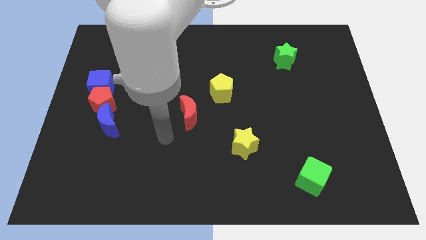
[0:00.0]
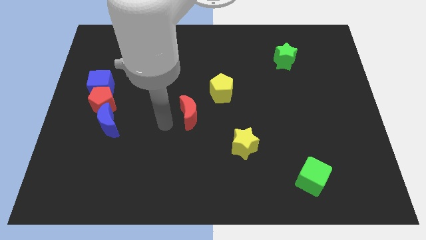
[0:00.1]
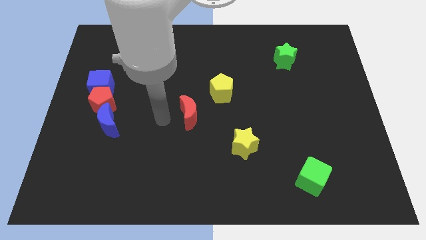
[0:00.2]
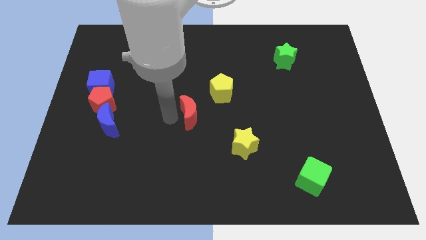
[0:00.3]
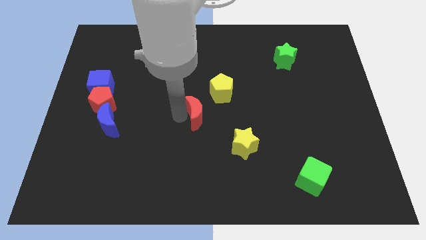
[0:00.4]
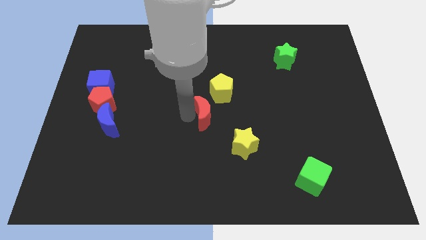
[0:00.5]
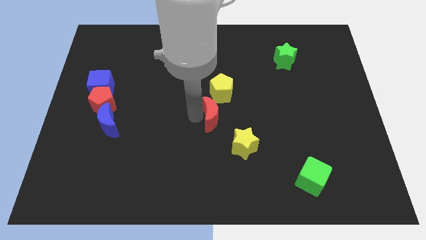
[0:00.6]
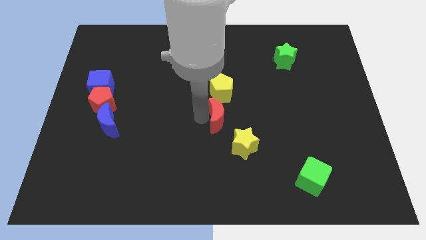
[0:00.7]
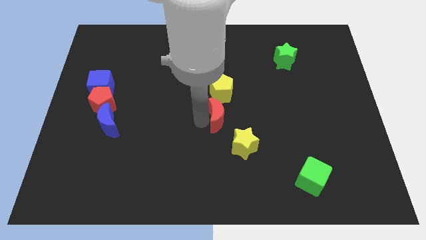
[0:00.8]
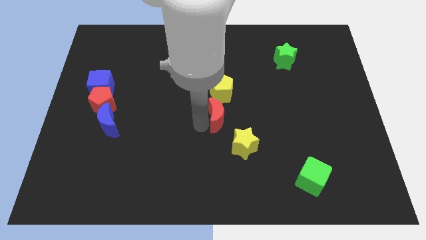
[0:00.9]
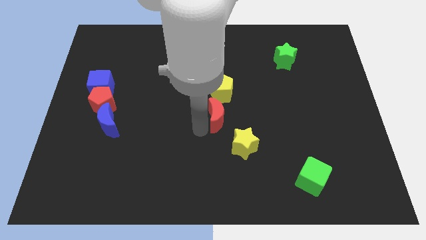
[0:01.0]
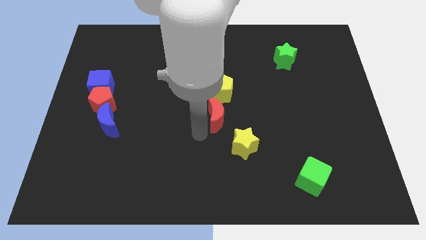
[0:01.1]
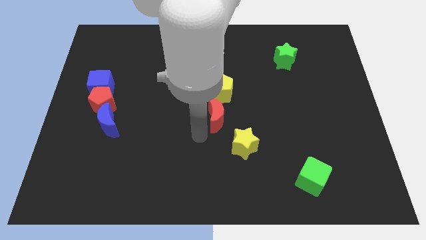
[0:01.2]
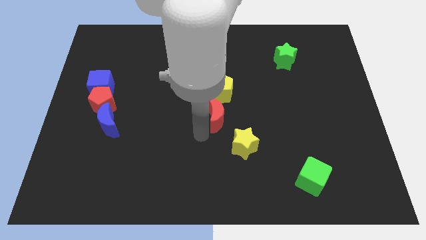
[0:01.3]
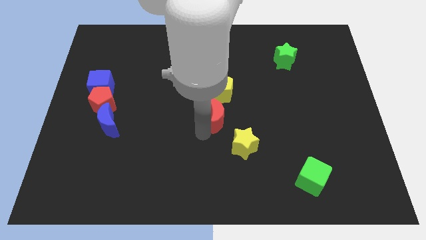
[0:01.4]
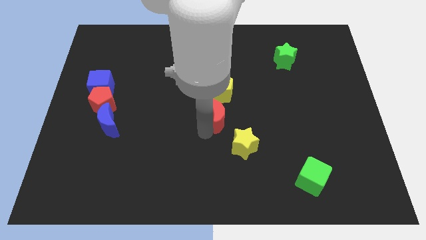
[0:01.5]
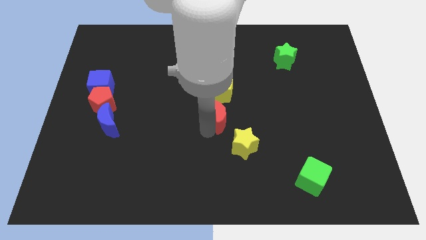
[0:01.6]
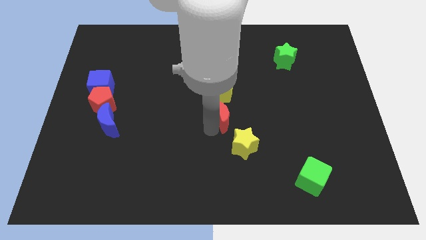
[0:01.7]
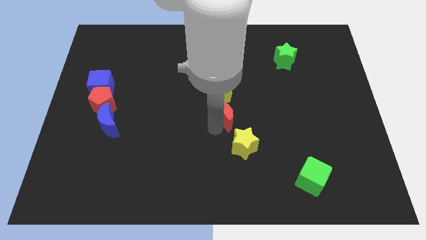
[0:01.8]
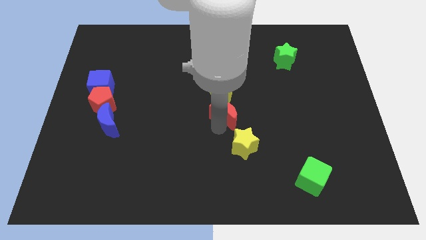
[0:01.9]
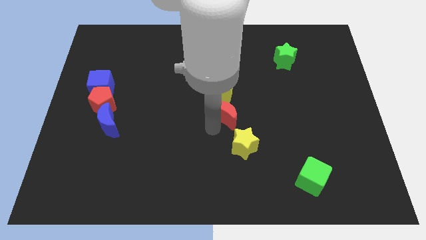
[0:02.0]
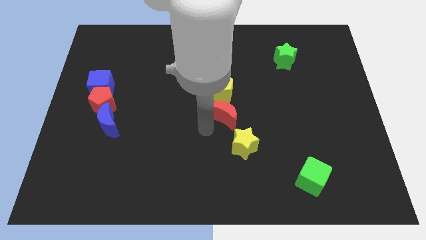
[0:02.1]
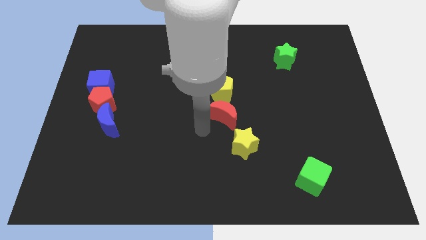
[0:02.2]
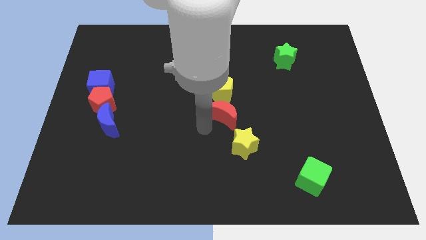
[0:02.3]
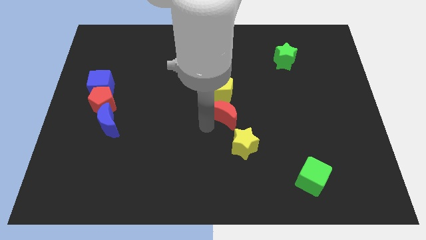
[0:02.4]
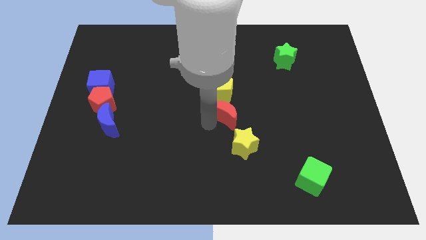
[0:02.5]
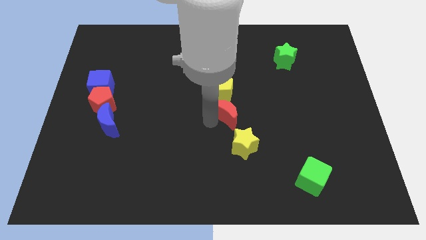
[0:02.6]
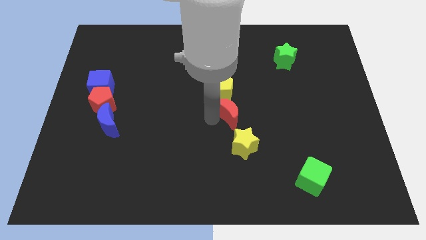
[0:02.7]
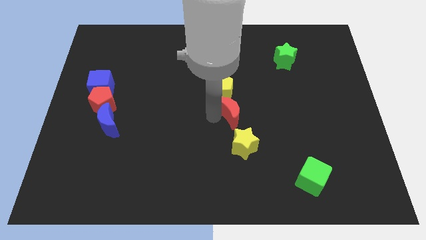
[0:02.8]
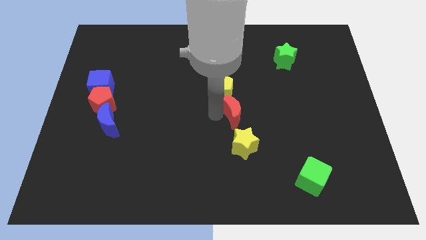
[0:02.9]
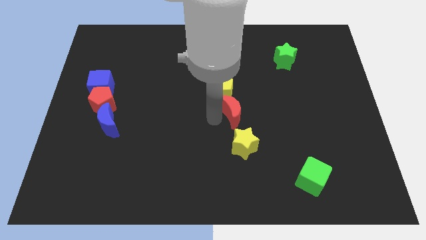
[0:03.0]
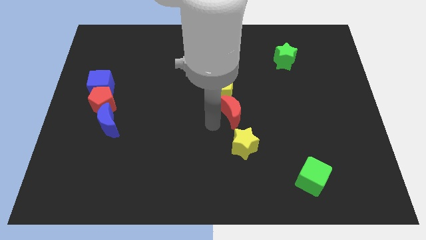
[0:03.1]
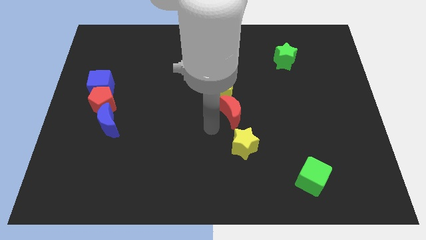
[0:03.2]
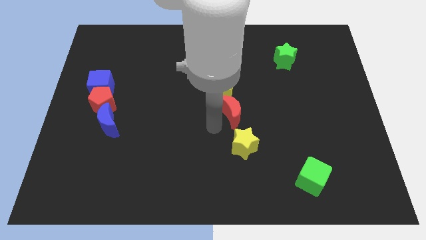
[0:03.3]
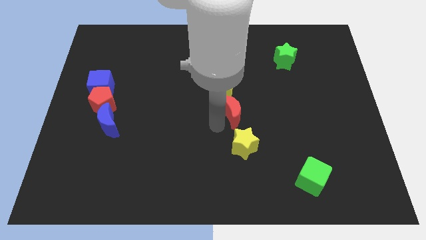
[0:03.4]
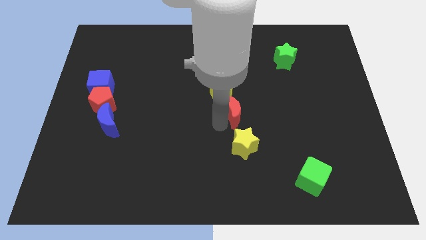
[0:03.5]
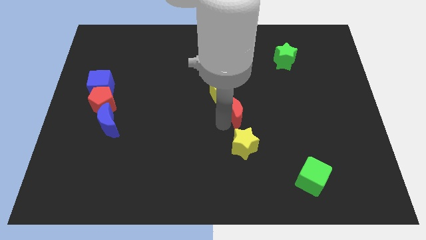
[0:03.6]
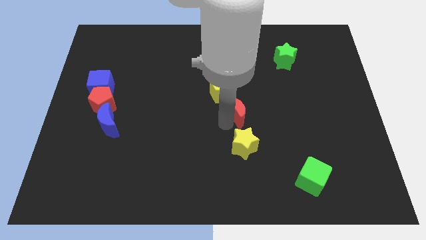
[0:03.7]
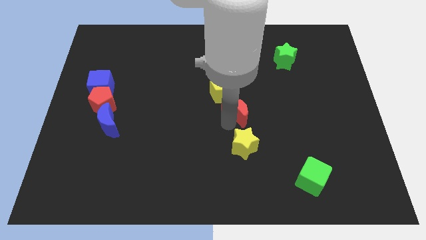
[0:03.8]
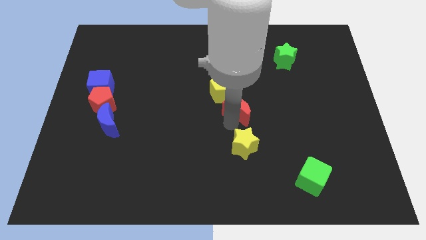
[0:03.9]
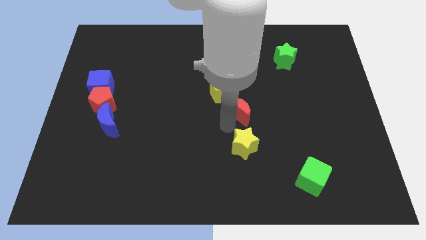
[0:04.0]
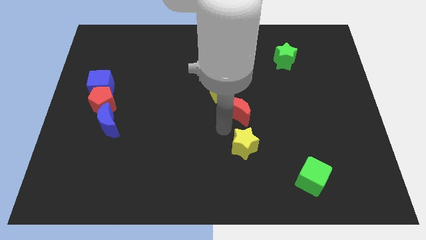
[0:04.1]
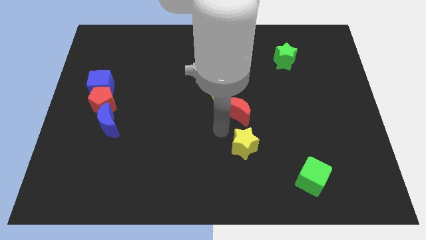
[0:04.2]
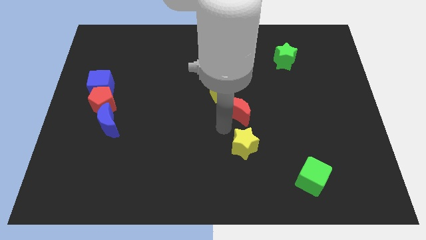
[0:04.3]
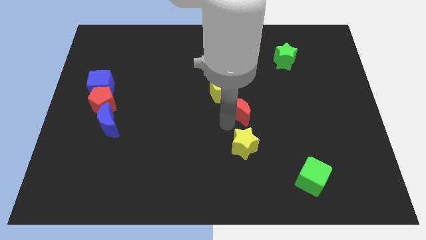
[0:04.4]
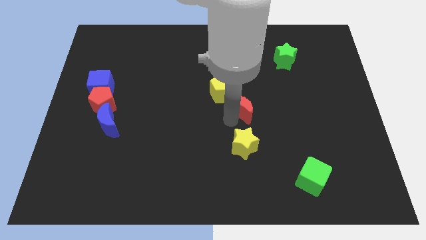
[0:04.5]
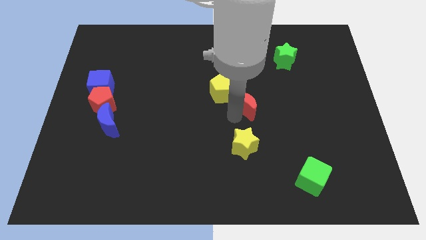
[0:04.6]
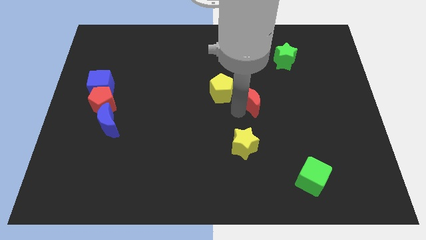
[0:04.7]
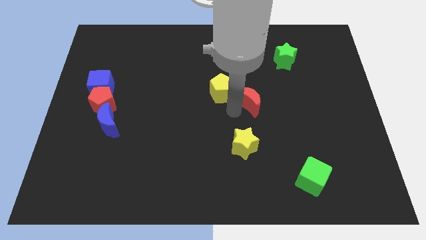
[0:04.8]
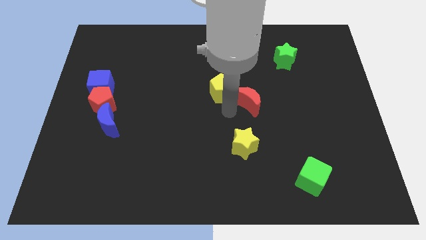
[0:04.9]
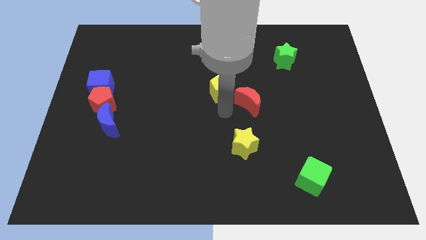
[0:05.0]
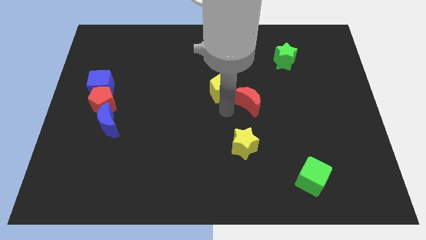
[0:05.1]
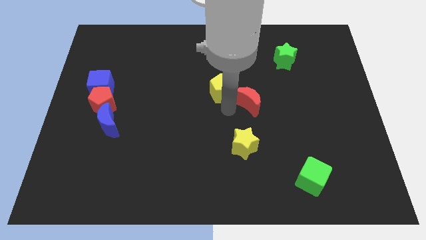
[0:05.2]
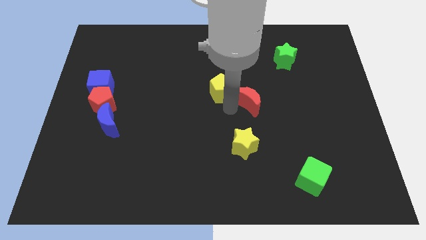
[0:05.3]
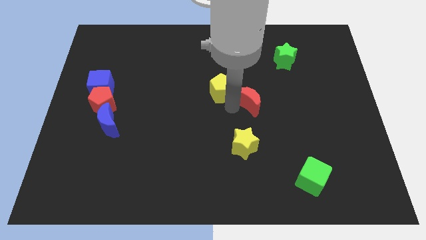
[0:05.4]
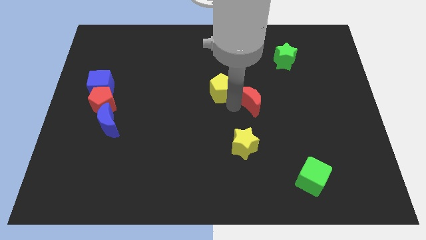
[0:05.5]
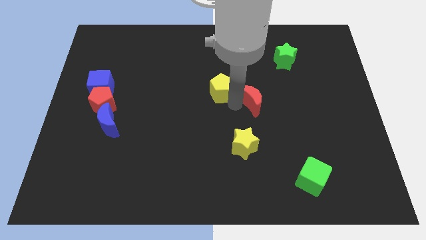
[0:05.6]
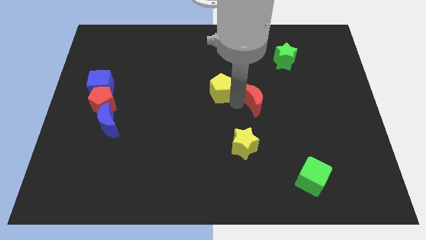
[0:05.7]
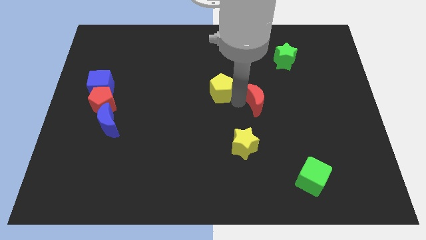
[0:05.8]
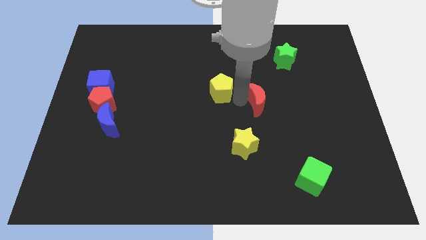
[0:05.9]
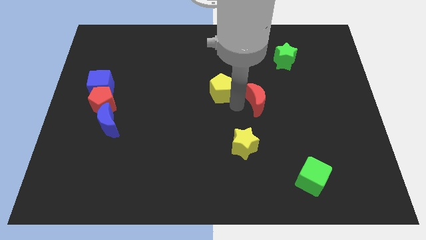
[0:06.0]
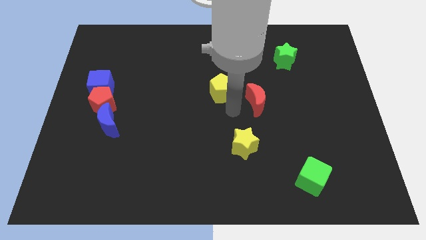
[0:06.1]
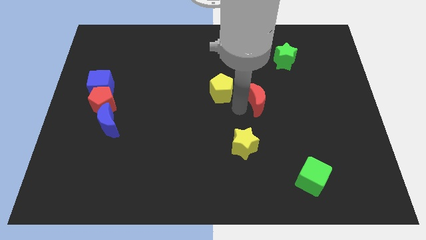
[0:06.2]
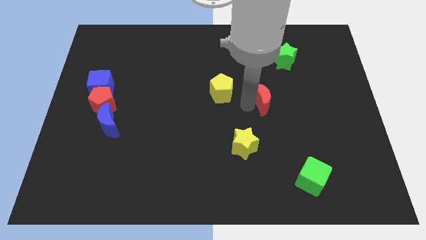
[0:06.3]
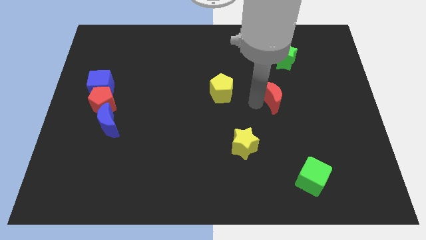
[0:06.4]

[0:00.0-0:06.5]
push the red moon to the bottom side of the green star
